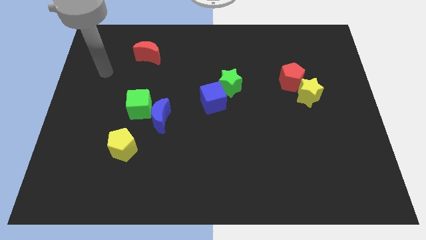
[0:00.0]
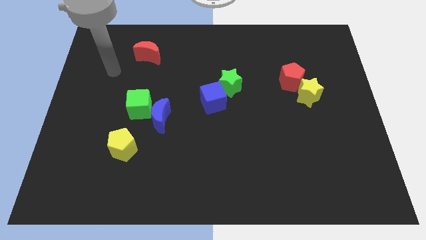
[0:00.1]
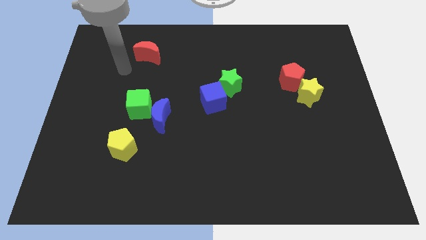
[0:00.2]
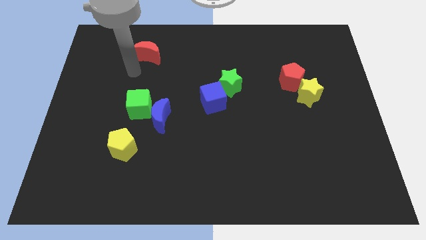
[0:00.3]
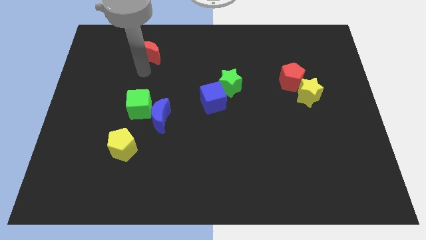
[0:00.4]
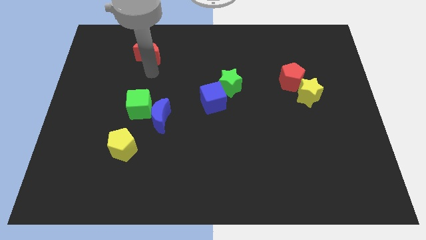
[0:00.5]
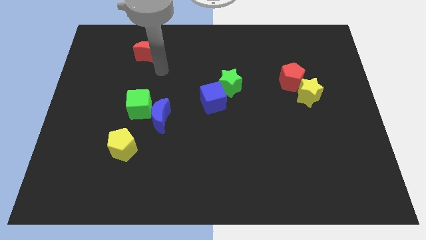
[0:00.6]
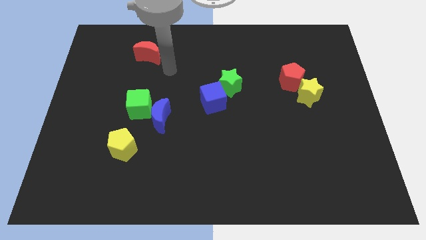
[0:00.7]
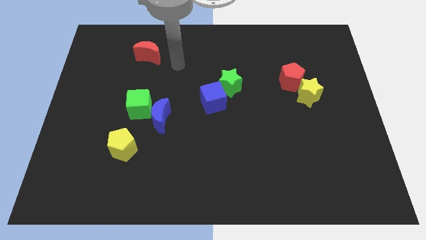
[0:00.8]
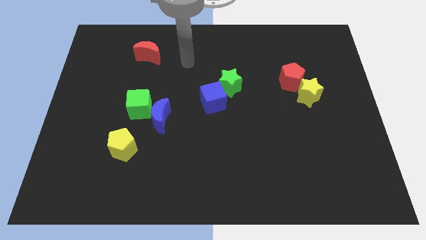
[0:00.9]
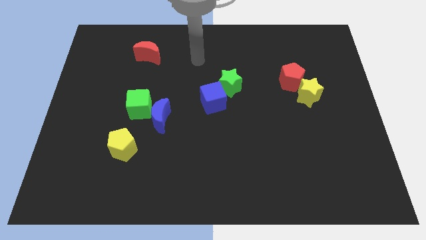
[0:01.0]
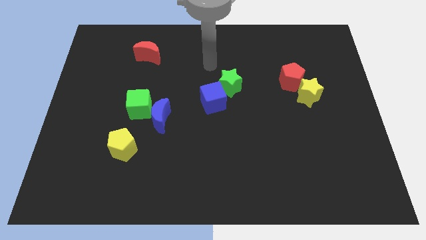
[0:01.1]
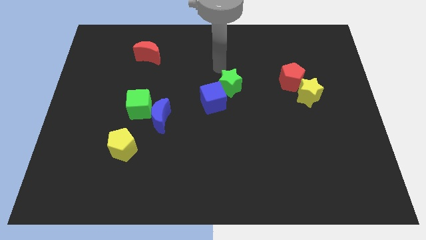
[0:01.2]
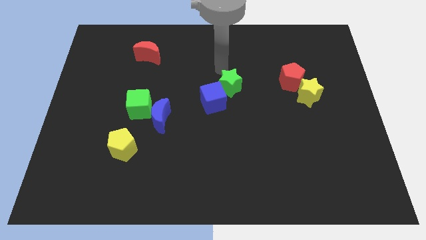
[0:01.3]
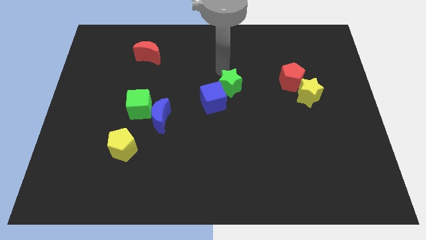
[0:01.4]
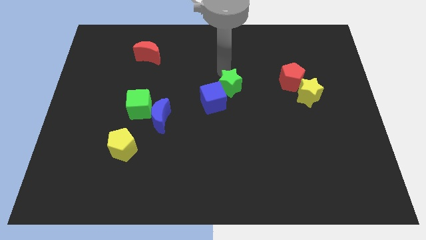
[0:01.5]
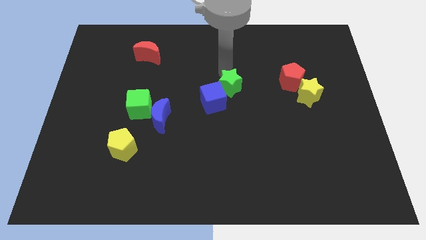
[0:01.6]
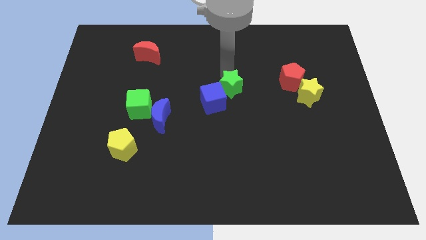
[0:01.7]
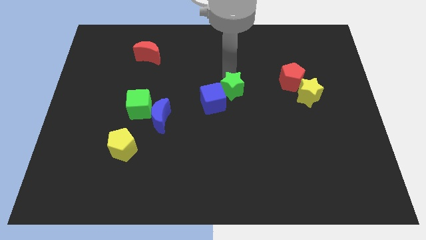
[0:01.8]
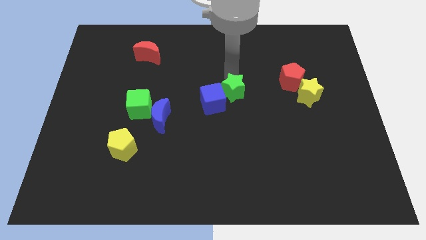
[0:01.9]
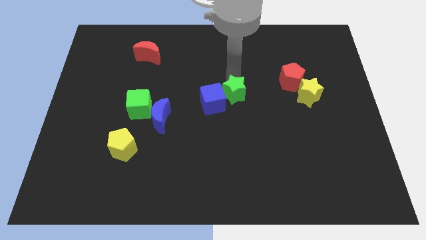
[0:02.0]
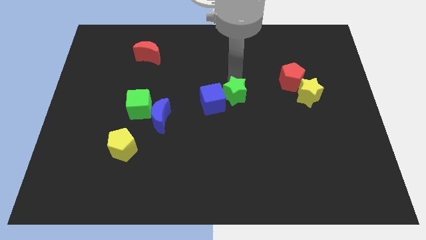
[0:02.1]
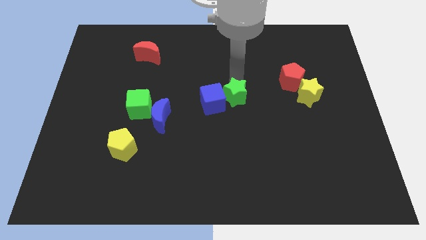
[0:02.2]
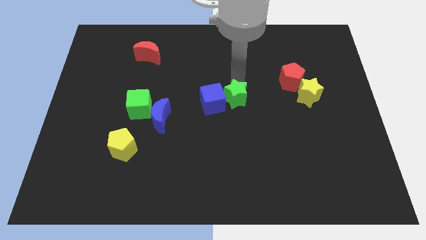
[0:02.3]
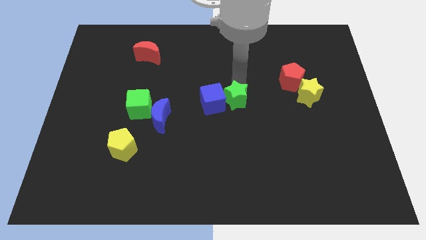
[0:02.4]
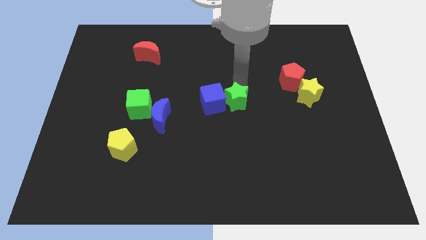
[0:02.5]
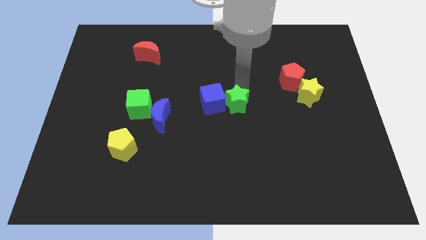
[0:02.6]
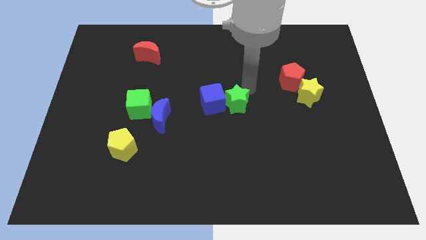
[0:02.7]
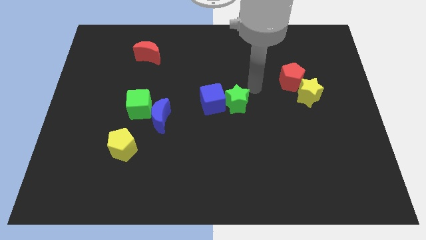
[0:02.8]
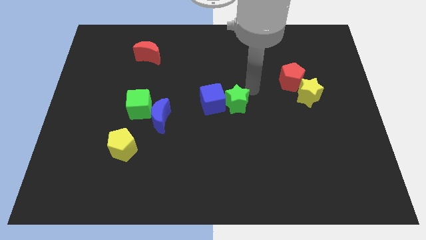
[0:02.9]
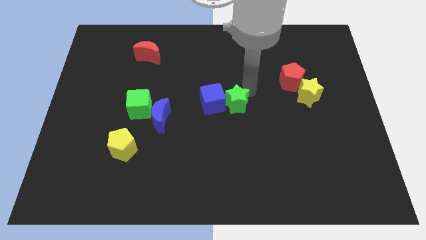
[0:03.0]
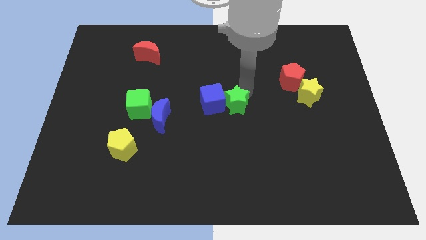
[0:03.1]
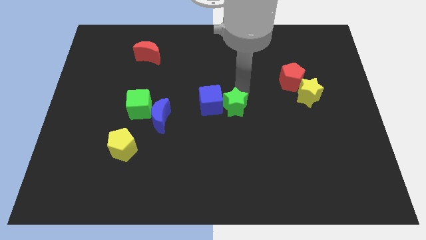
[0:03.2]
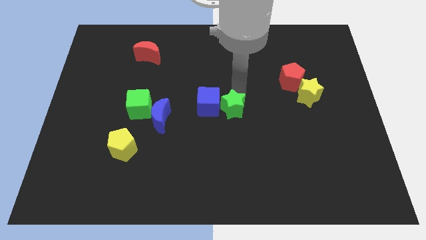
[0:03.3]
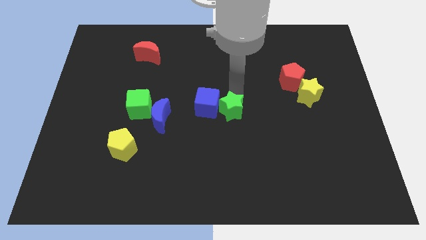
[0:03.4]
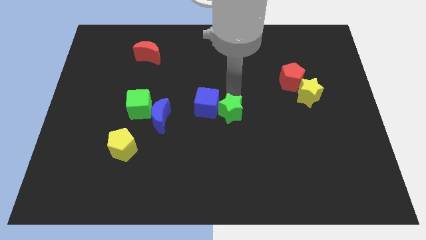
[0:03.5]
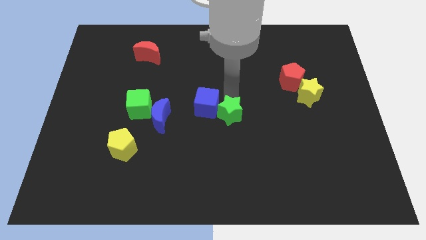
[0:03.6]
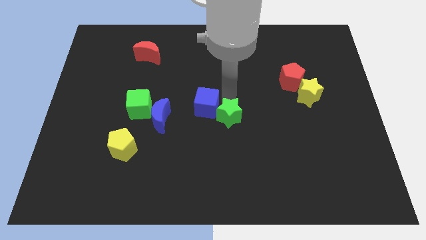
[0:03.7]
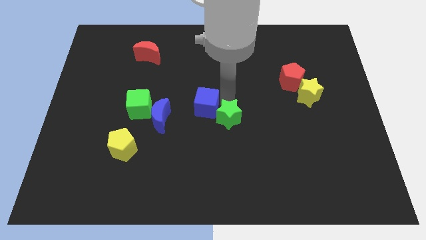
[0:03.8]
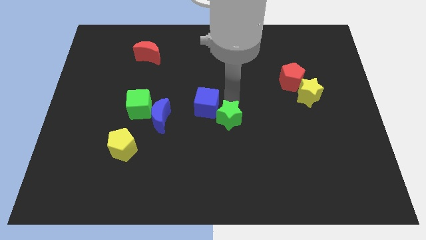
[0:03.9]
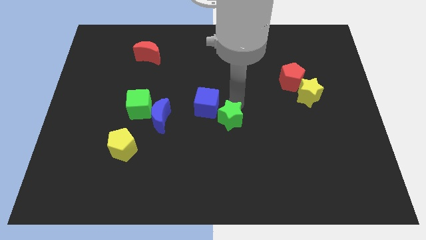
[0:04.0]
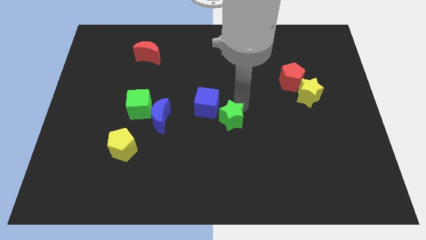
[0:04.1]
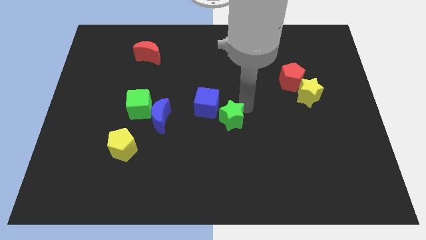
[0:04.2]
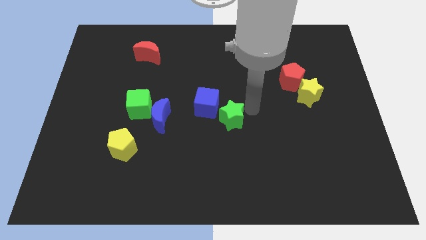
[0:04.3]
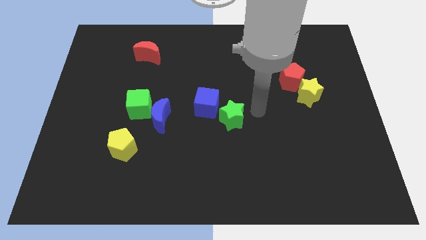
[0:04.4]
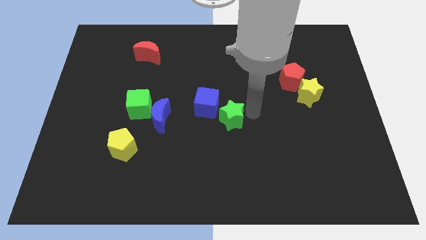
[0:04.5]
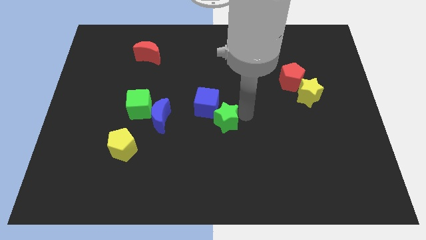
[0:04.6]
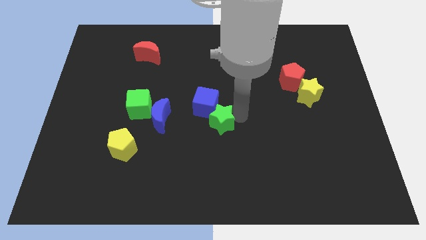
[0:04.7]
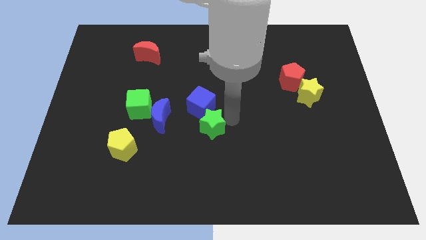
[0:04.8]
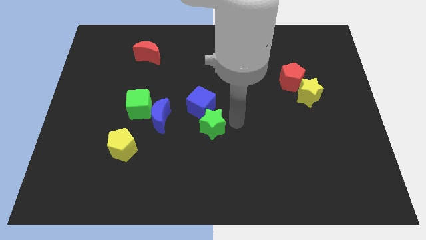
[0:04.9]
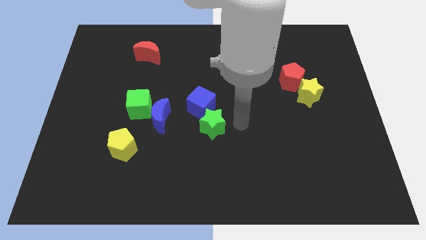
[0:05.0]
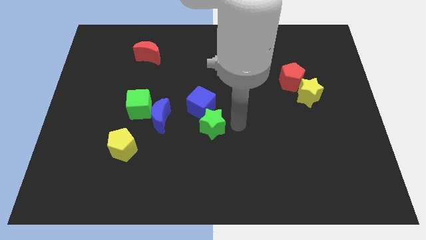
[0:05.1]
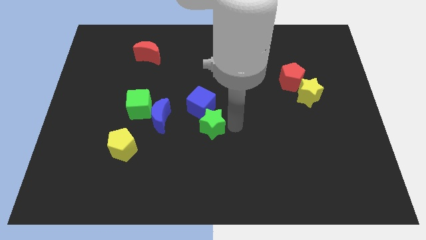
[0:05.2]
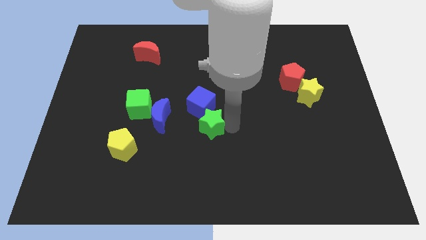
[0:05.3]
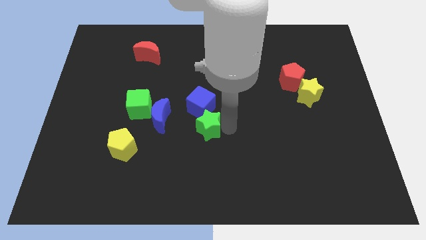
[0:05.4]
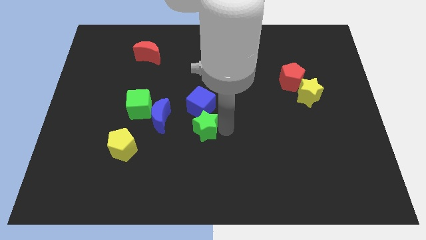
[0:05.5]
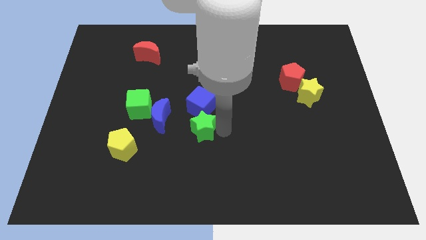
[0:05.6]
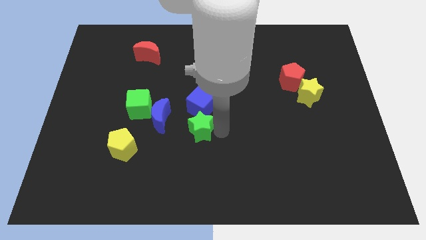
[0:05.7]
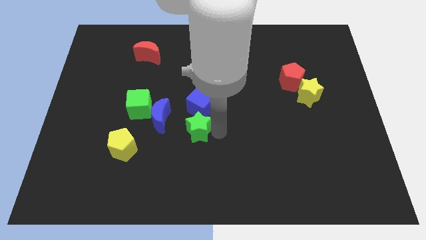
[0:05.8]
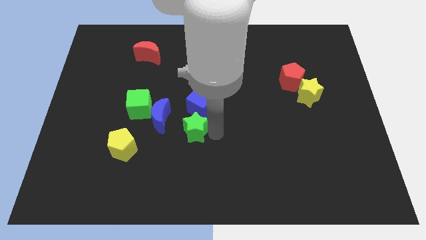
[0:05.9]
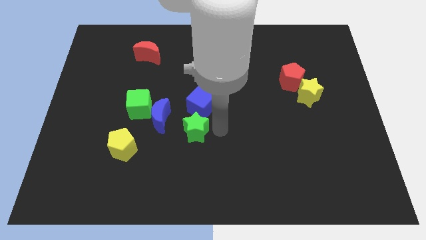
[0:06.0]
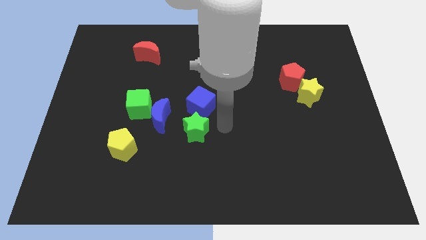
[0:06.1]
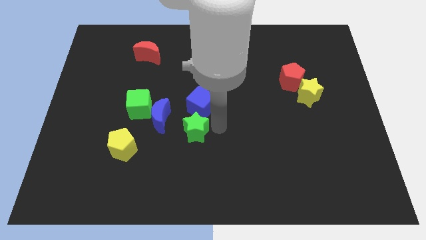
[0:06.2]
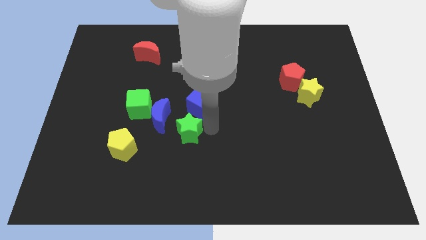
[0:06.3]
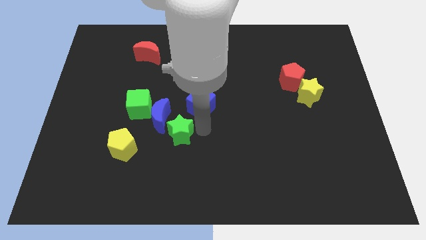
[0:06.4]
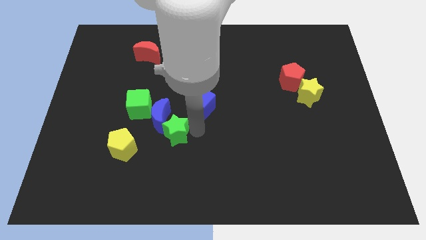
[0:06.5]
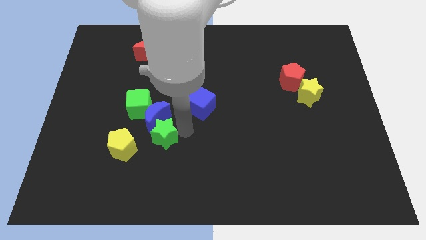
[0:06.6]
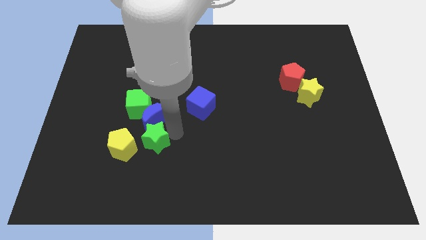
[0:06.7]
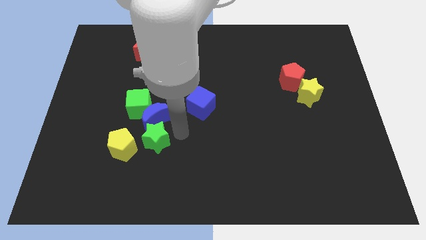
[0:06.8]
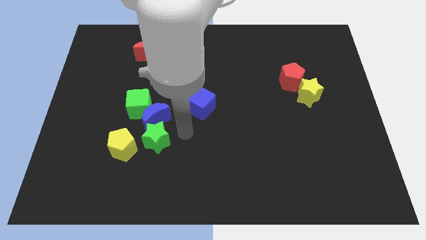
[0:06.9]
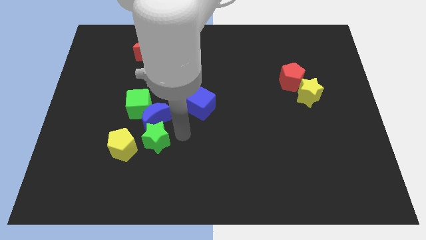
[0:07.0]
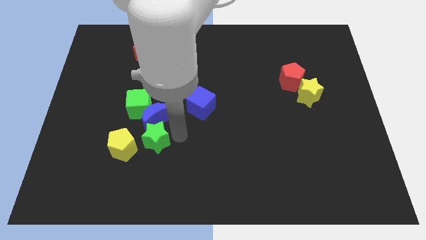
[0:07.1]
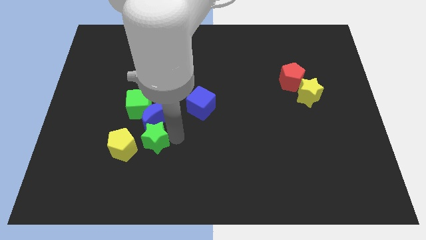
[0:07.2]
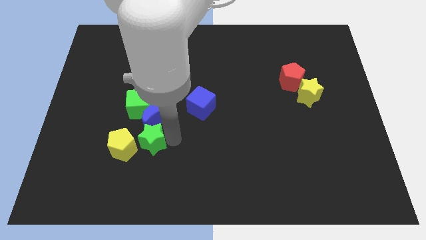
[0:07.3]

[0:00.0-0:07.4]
move the green star to the yellow pentagon

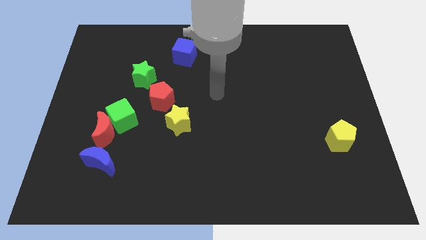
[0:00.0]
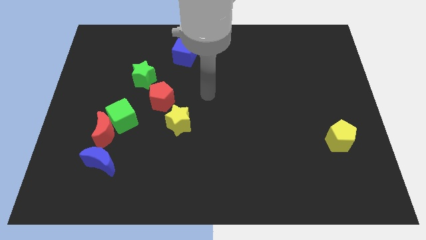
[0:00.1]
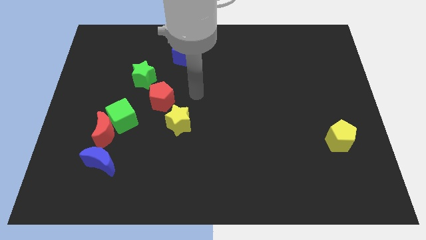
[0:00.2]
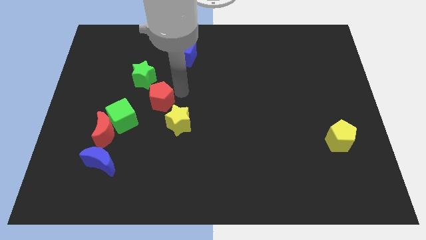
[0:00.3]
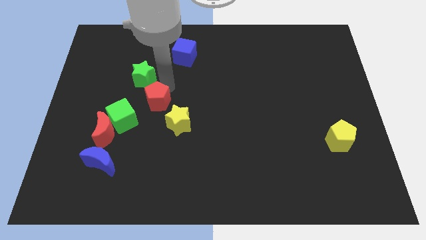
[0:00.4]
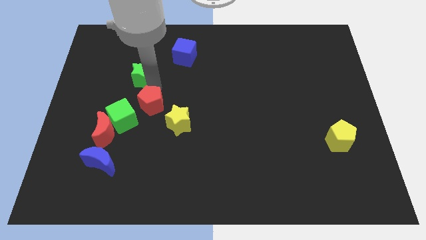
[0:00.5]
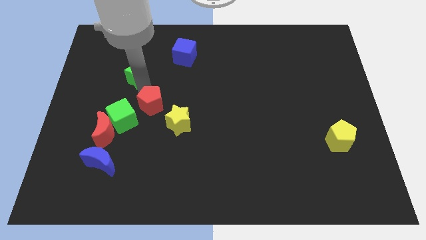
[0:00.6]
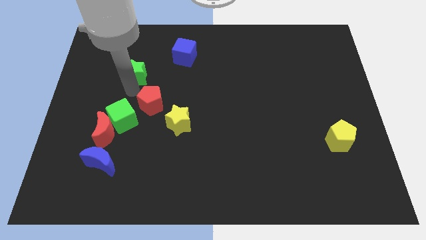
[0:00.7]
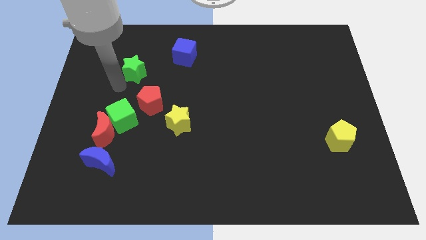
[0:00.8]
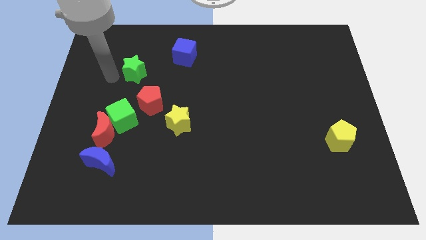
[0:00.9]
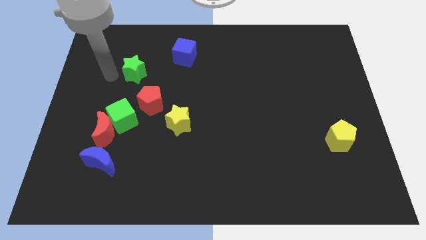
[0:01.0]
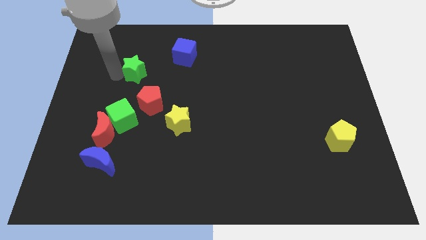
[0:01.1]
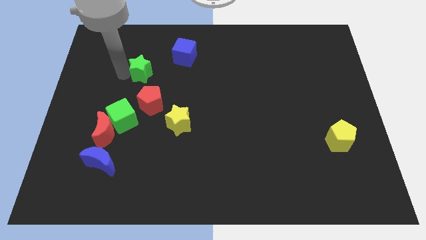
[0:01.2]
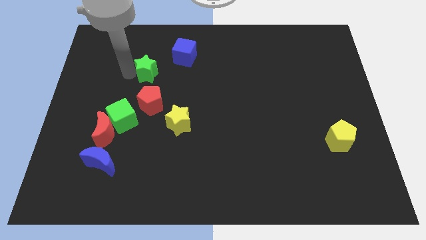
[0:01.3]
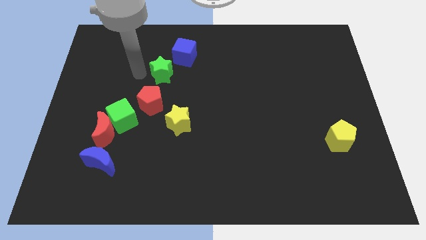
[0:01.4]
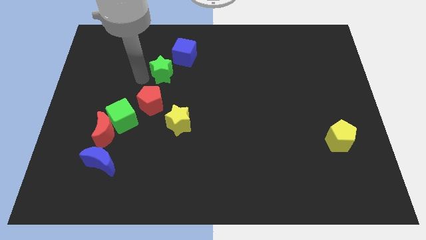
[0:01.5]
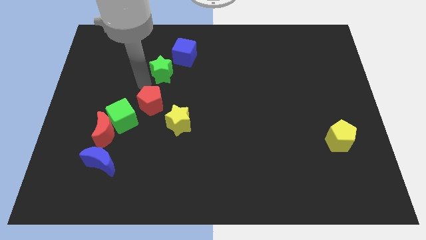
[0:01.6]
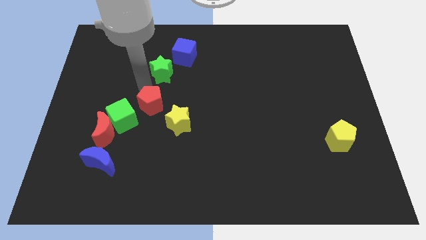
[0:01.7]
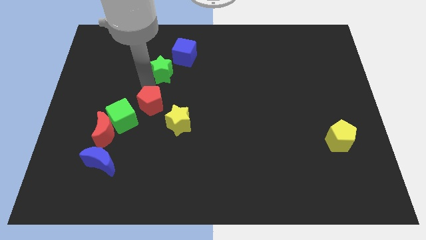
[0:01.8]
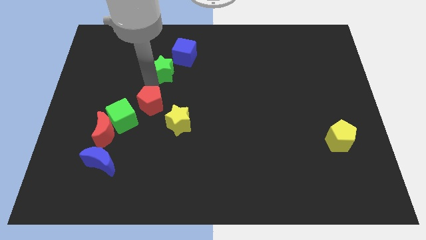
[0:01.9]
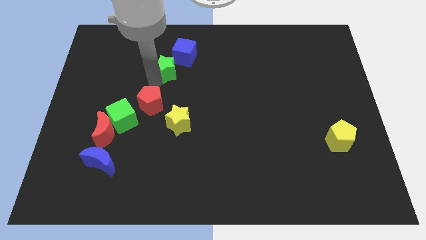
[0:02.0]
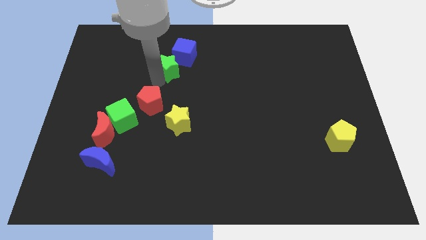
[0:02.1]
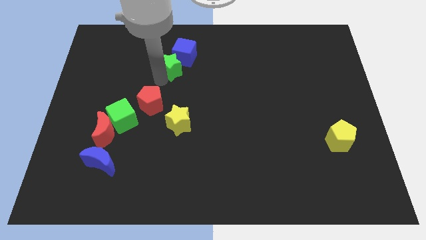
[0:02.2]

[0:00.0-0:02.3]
move the green star to the blue cube
